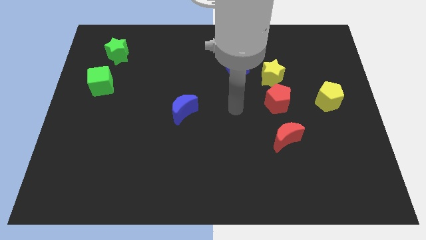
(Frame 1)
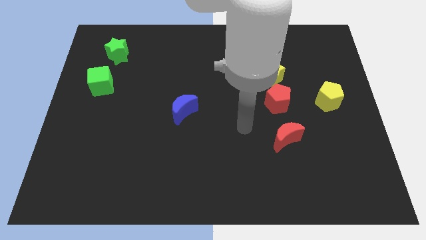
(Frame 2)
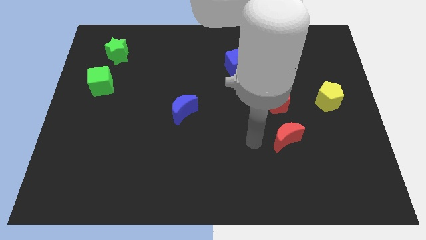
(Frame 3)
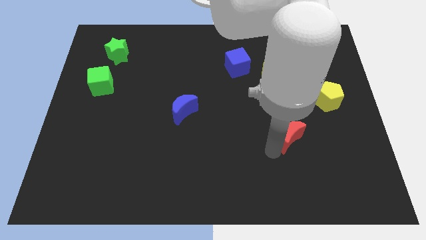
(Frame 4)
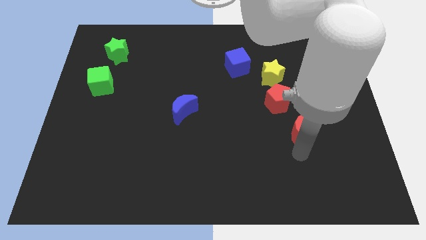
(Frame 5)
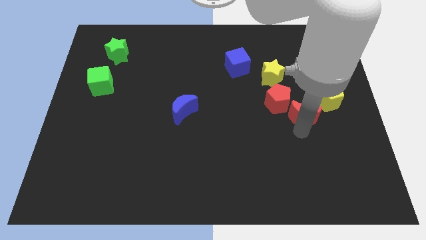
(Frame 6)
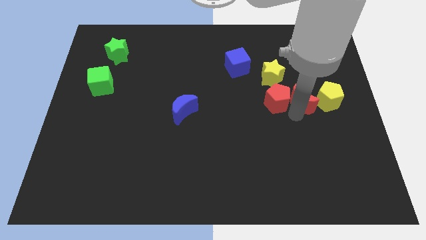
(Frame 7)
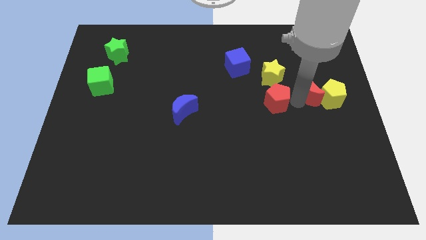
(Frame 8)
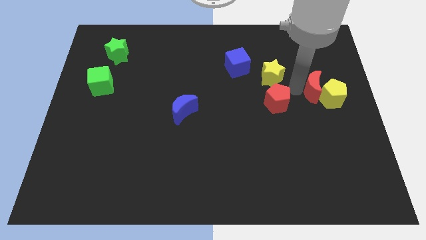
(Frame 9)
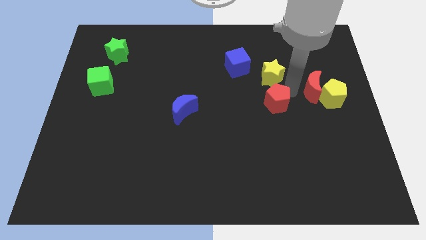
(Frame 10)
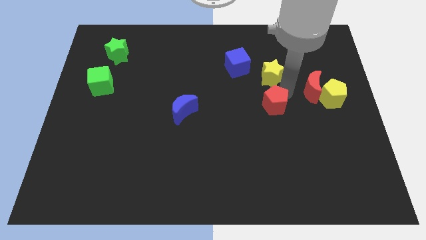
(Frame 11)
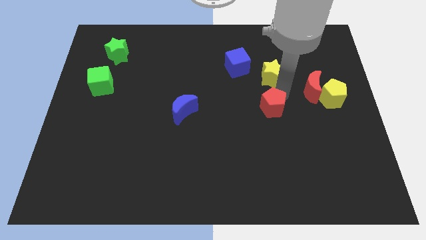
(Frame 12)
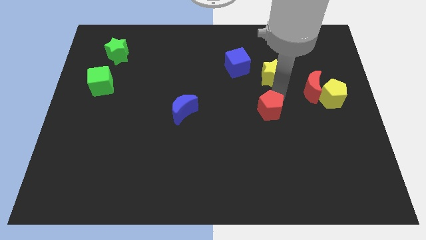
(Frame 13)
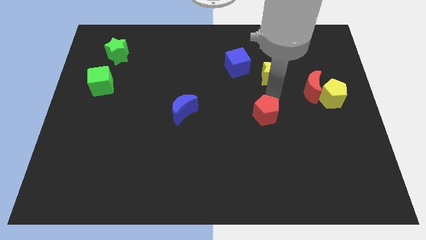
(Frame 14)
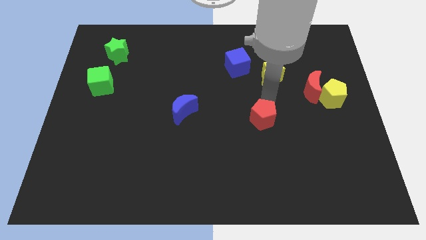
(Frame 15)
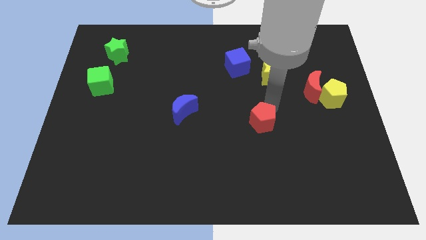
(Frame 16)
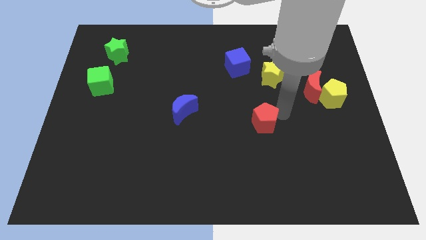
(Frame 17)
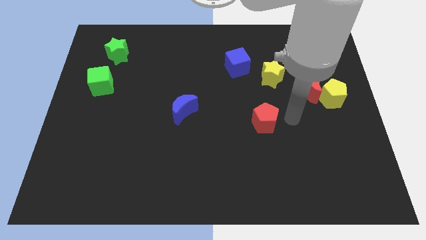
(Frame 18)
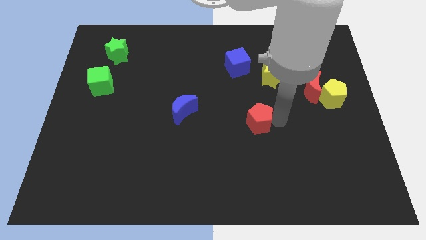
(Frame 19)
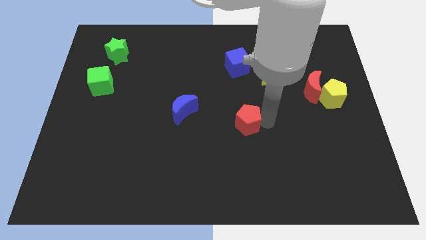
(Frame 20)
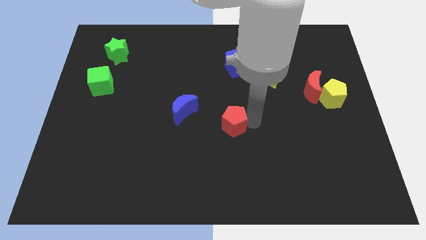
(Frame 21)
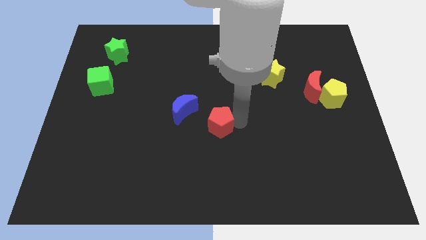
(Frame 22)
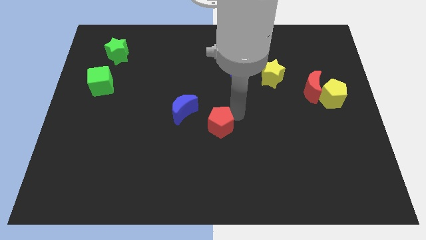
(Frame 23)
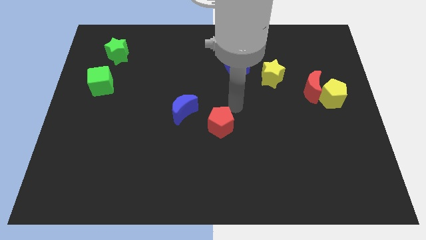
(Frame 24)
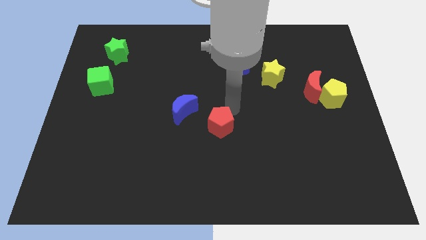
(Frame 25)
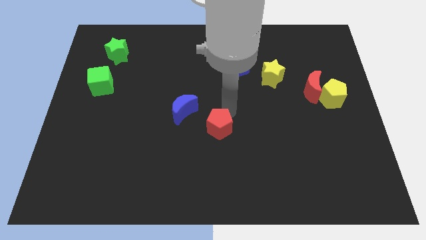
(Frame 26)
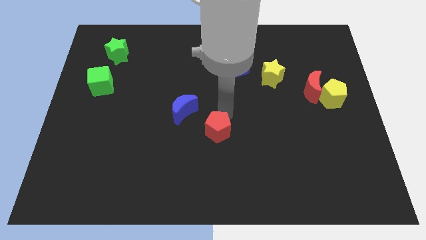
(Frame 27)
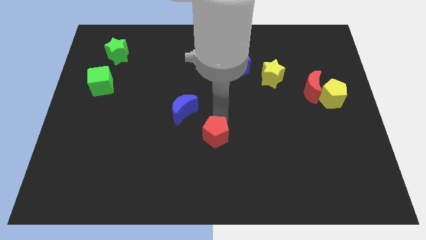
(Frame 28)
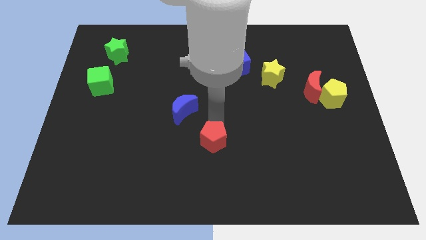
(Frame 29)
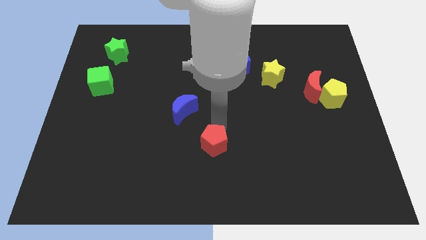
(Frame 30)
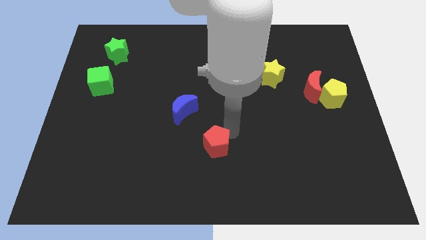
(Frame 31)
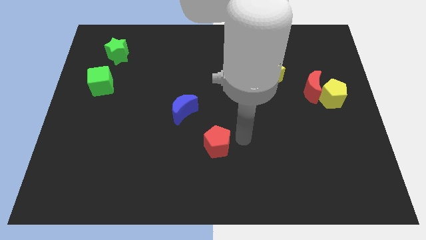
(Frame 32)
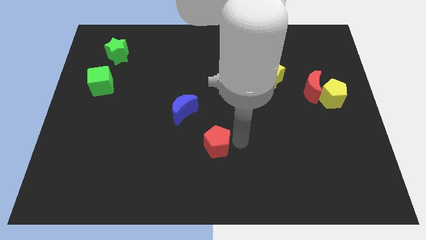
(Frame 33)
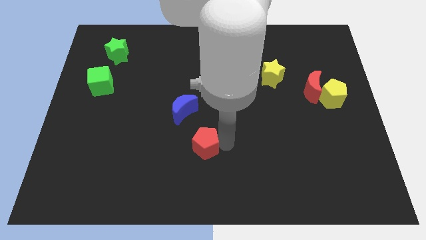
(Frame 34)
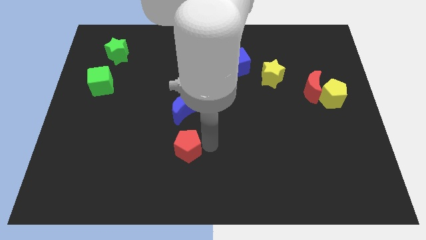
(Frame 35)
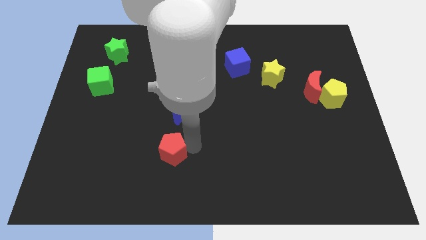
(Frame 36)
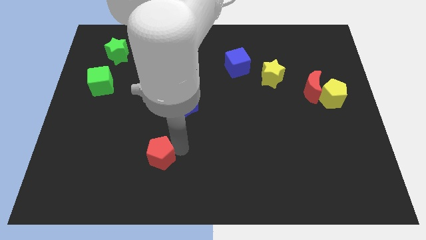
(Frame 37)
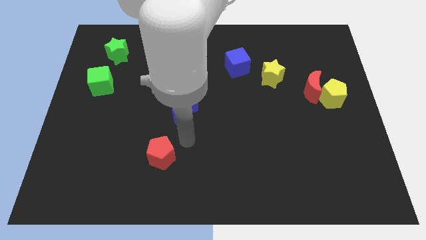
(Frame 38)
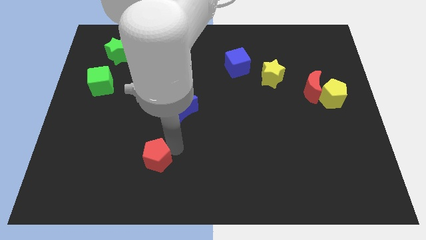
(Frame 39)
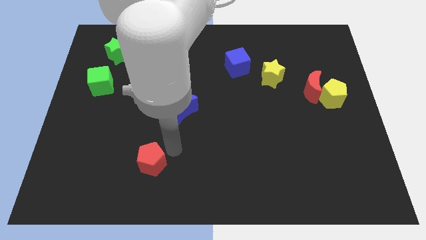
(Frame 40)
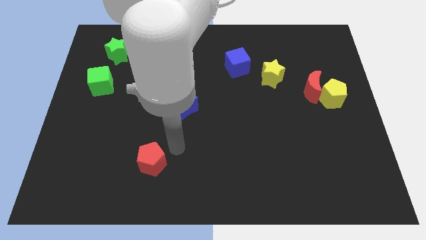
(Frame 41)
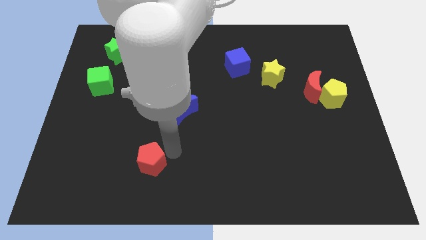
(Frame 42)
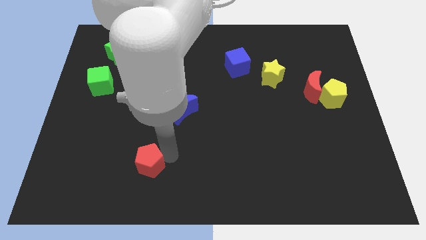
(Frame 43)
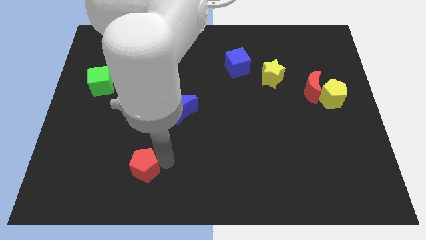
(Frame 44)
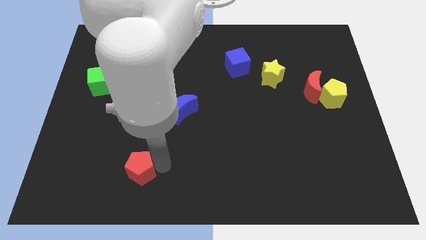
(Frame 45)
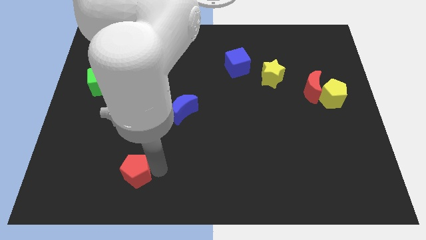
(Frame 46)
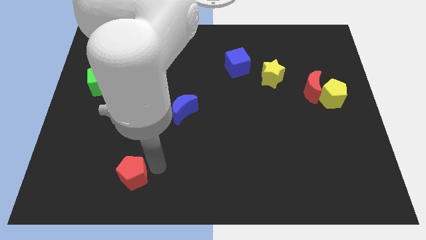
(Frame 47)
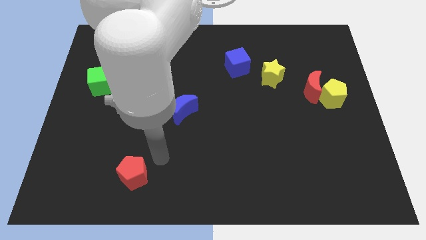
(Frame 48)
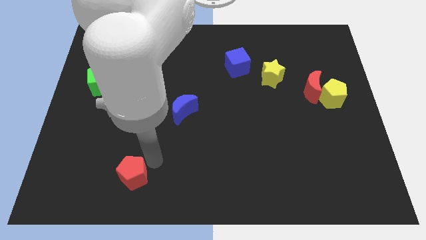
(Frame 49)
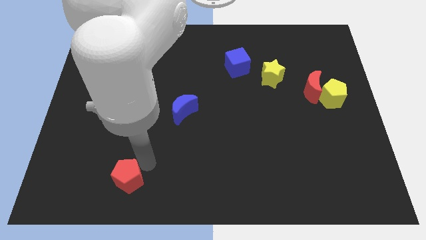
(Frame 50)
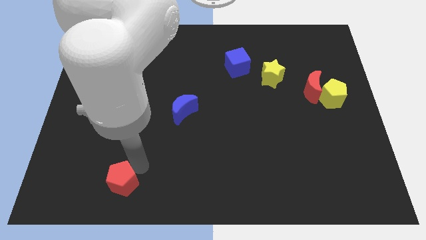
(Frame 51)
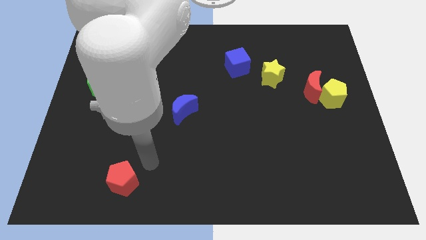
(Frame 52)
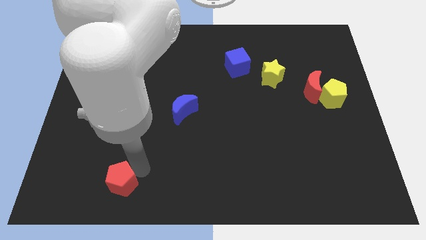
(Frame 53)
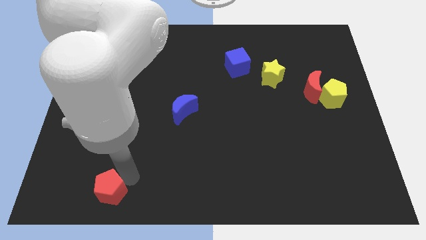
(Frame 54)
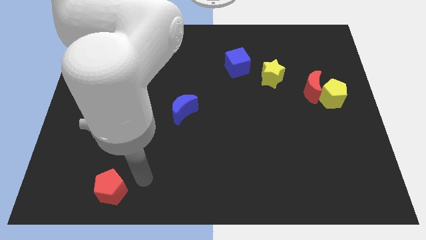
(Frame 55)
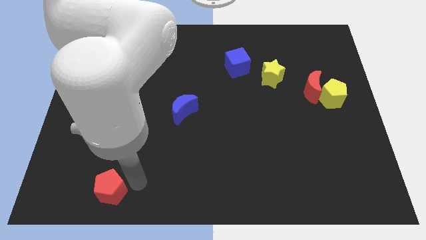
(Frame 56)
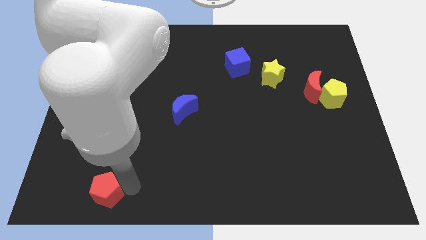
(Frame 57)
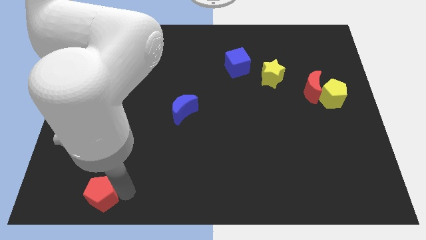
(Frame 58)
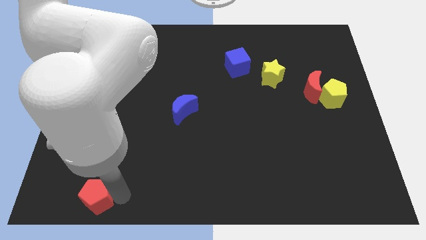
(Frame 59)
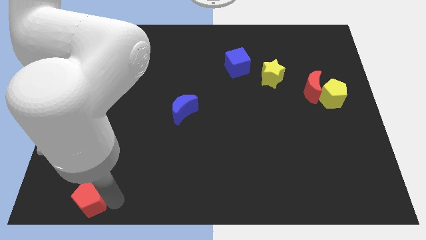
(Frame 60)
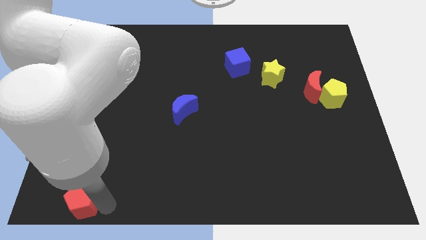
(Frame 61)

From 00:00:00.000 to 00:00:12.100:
push the red pentagon to the bottom left corner
